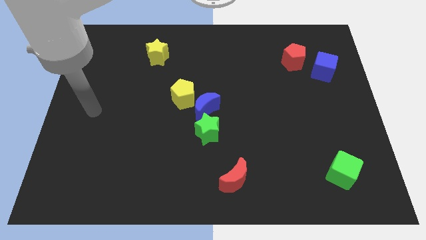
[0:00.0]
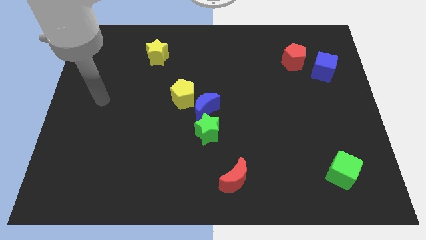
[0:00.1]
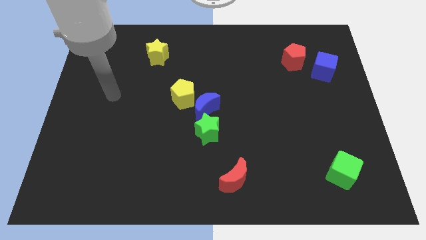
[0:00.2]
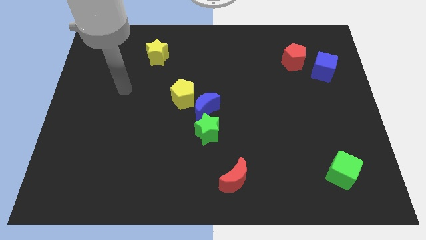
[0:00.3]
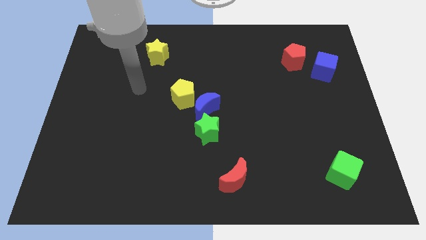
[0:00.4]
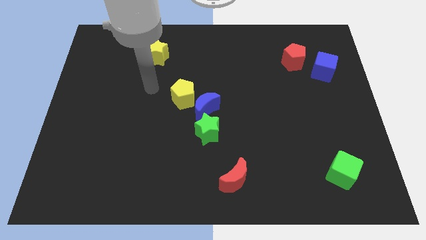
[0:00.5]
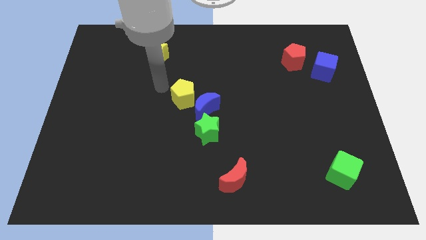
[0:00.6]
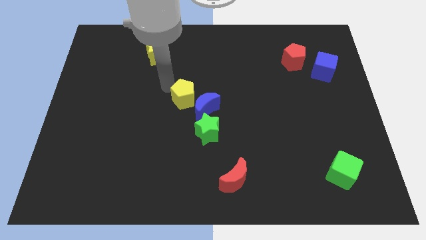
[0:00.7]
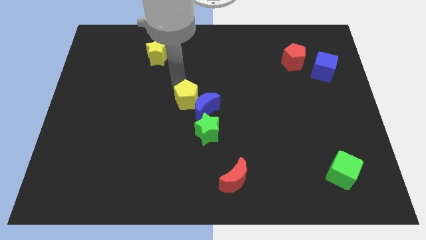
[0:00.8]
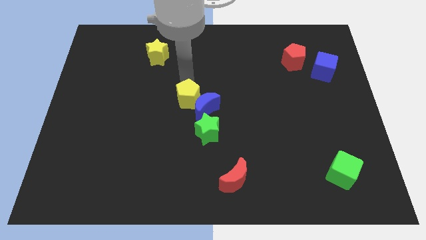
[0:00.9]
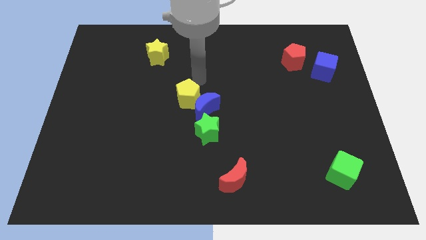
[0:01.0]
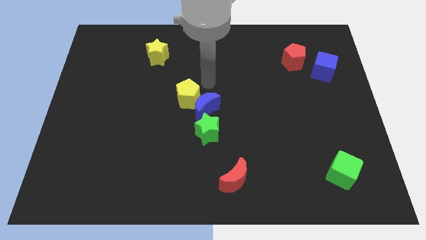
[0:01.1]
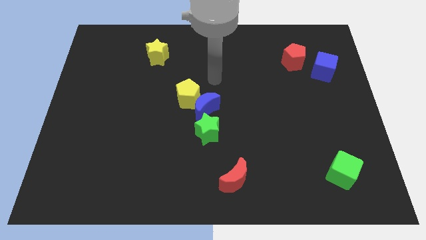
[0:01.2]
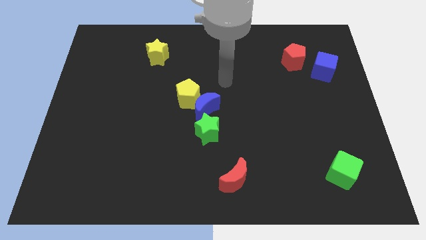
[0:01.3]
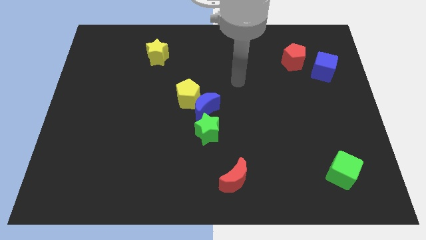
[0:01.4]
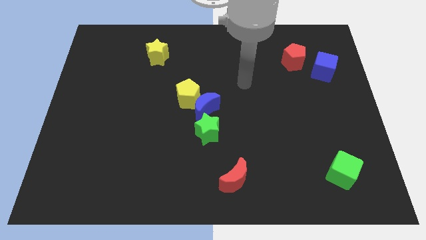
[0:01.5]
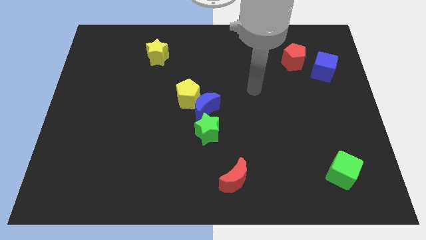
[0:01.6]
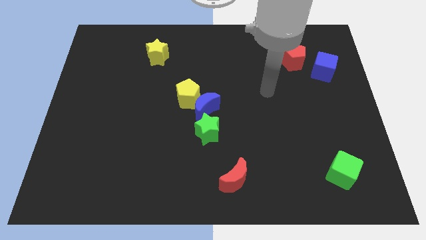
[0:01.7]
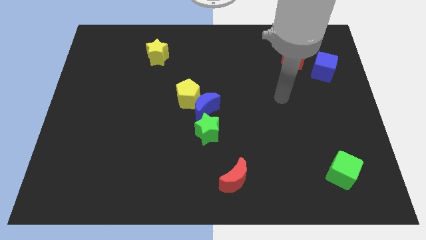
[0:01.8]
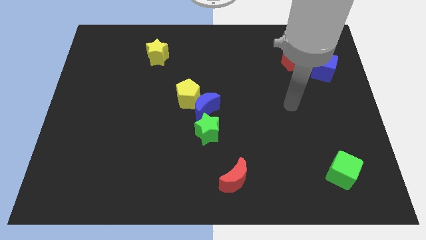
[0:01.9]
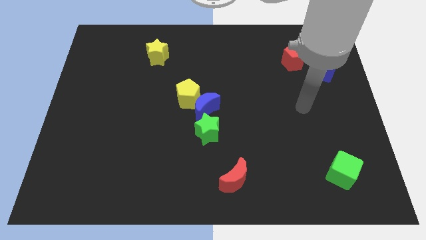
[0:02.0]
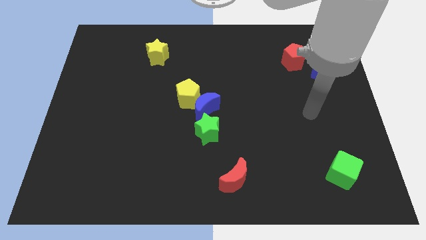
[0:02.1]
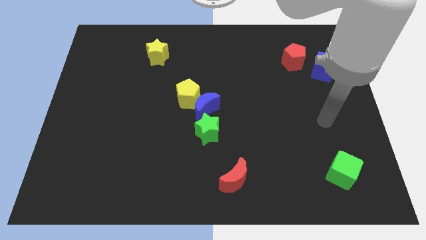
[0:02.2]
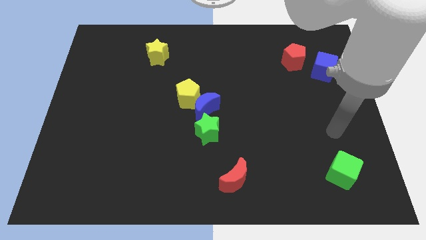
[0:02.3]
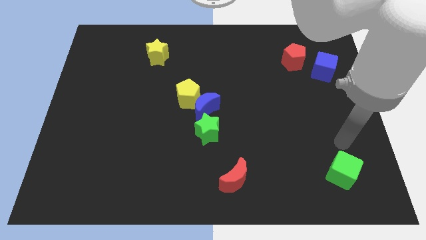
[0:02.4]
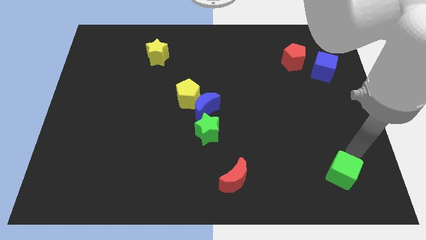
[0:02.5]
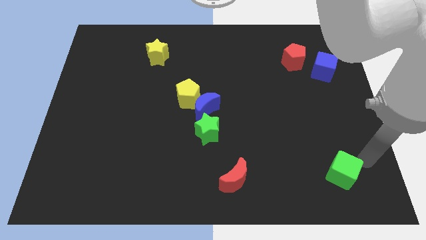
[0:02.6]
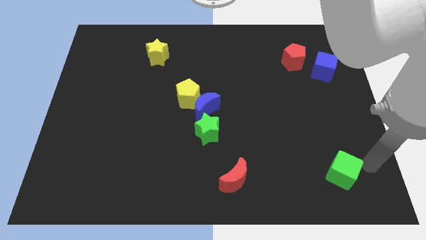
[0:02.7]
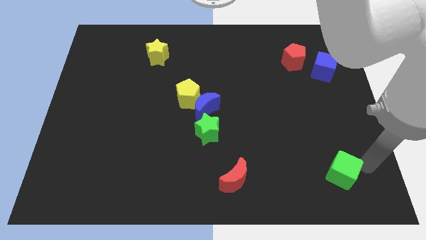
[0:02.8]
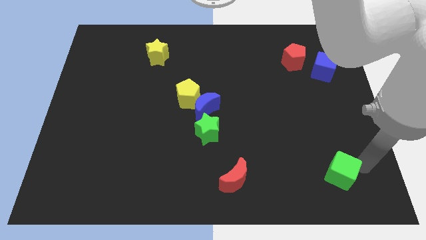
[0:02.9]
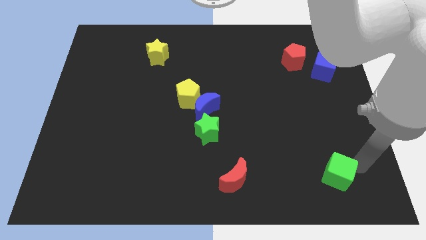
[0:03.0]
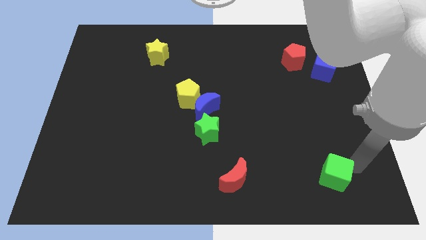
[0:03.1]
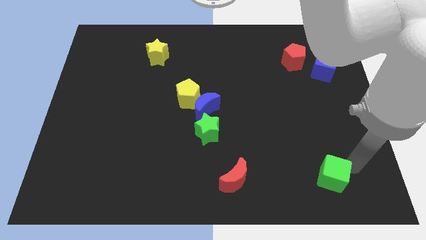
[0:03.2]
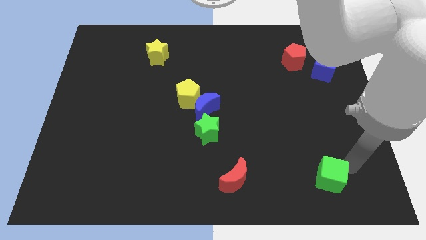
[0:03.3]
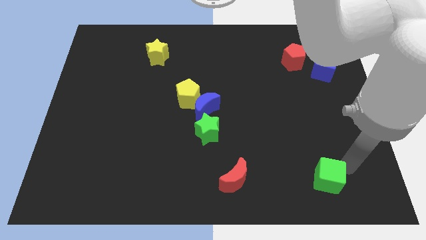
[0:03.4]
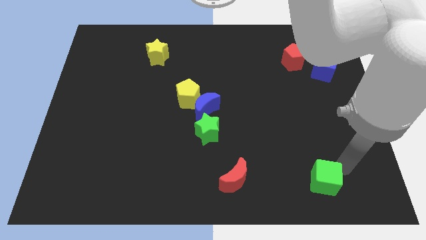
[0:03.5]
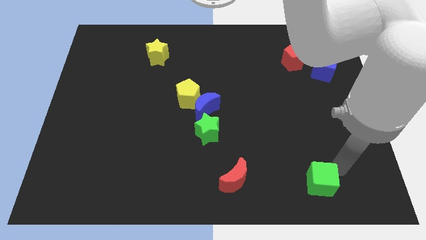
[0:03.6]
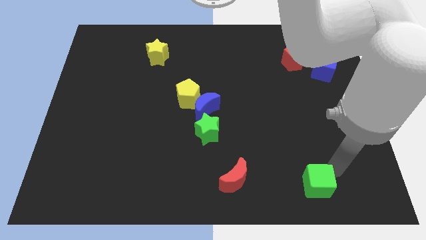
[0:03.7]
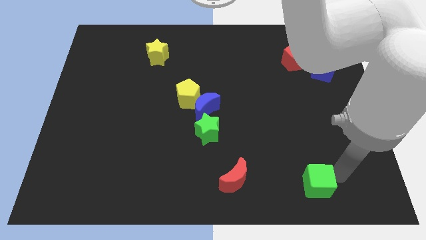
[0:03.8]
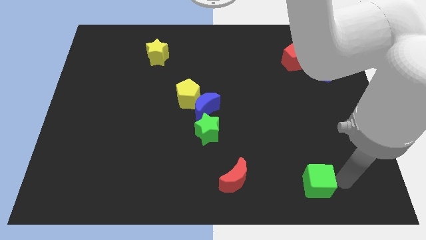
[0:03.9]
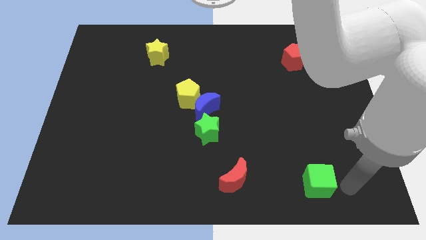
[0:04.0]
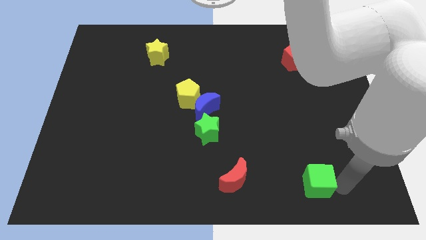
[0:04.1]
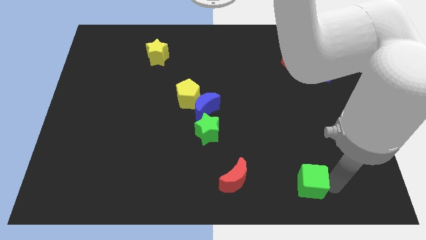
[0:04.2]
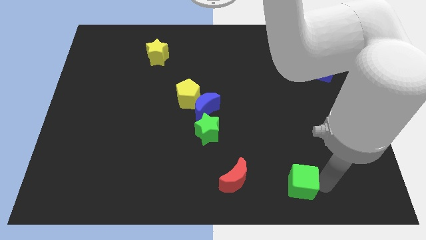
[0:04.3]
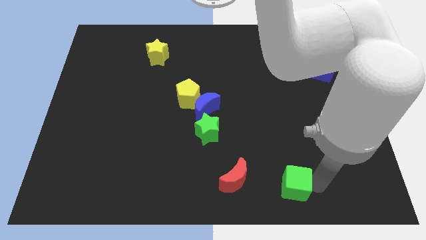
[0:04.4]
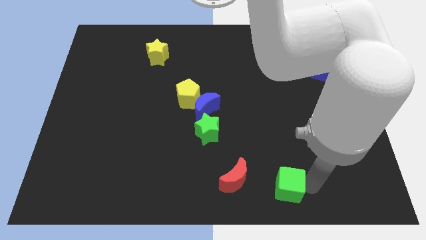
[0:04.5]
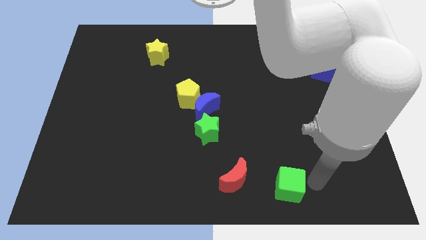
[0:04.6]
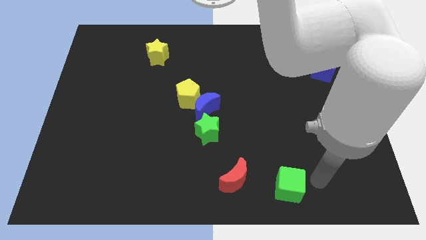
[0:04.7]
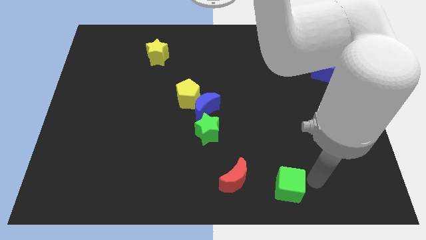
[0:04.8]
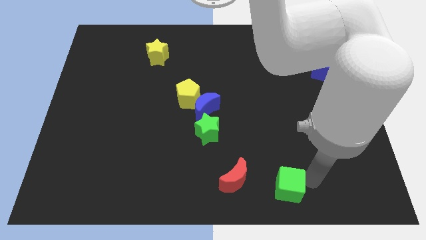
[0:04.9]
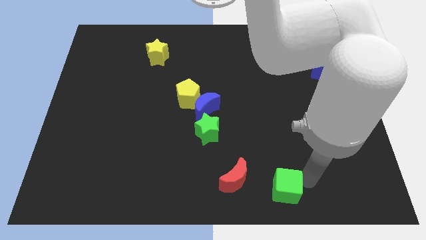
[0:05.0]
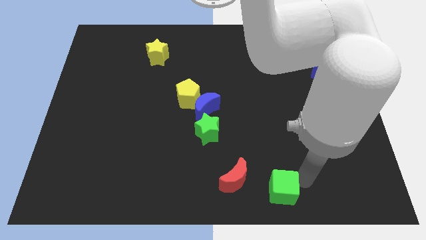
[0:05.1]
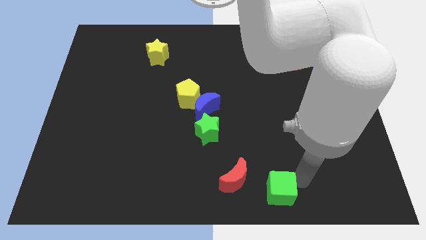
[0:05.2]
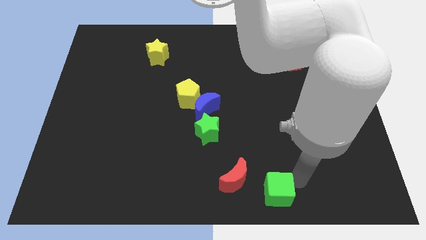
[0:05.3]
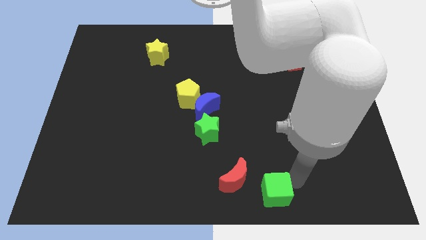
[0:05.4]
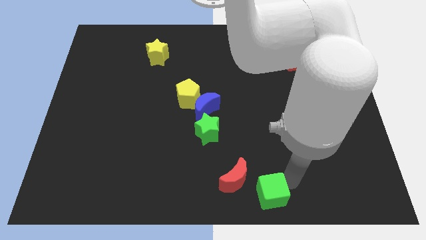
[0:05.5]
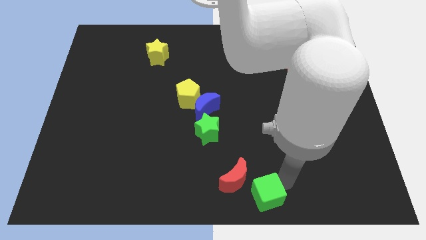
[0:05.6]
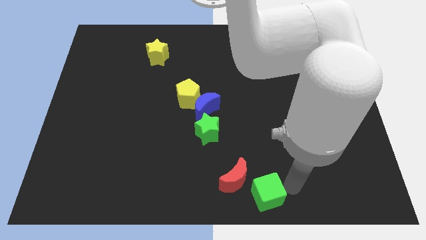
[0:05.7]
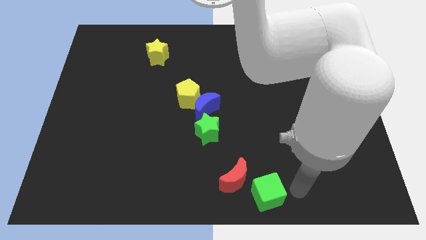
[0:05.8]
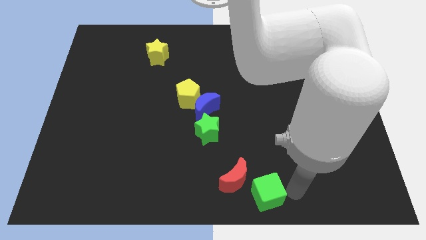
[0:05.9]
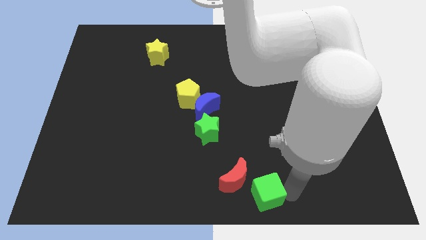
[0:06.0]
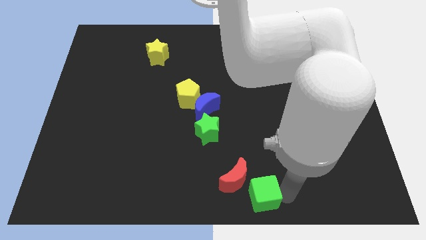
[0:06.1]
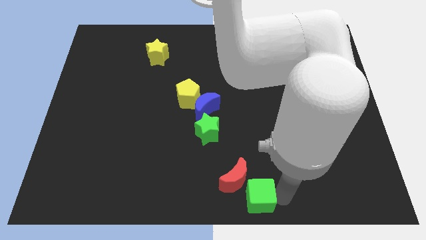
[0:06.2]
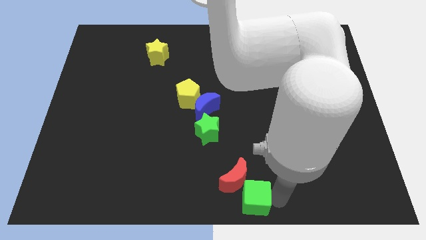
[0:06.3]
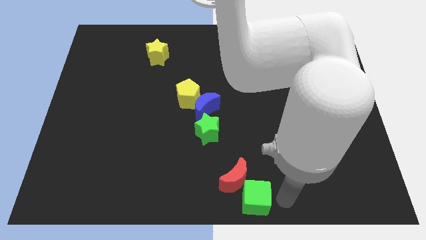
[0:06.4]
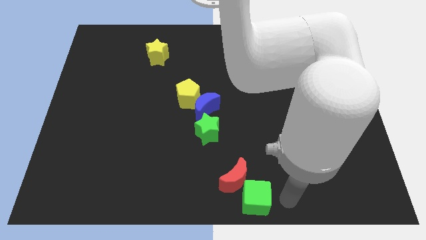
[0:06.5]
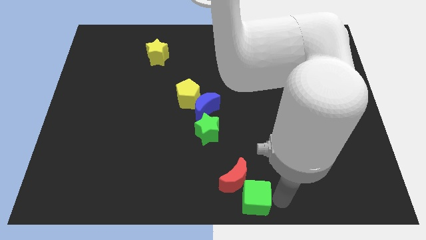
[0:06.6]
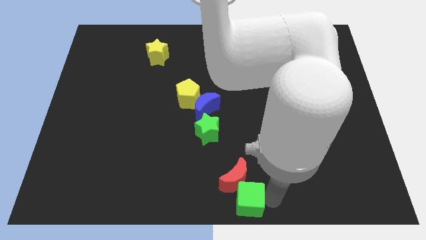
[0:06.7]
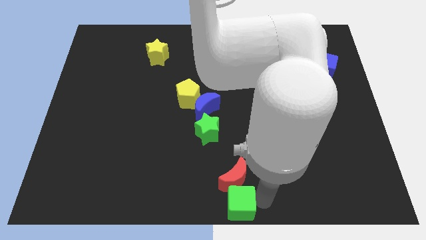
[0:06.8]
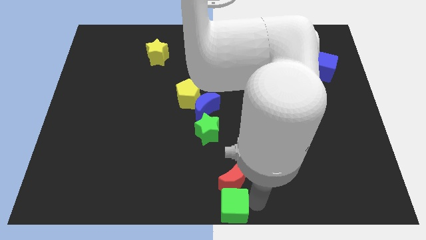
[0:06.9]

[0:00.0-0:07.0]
move the green cube left

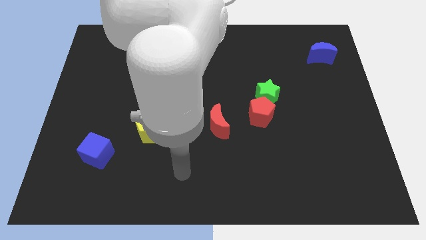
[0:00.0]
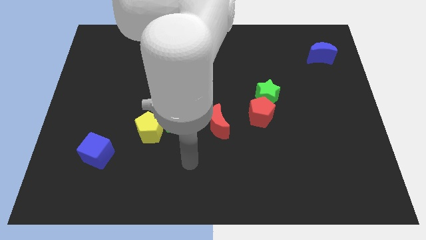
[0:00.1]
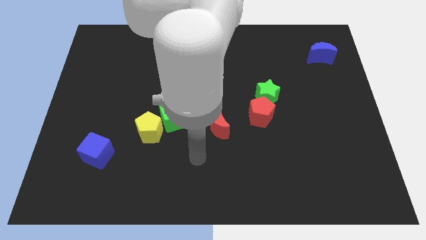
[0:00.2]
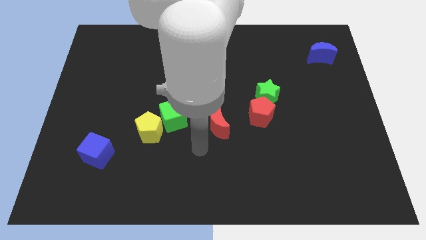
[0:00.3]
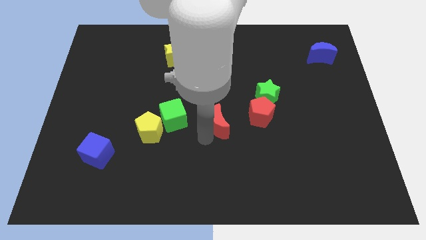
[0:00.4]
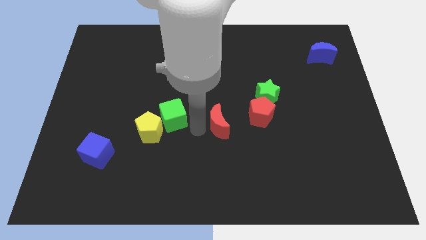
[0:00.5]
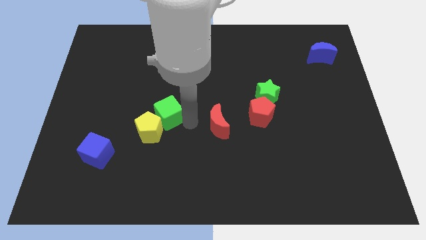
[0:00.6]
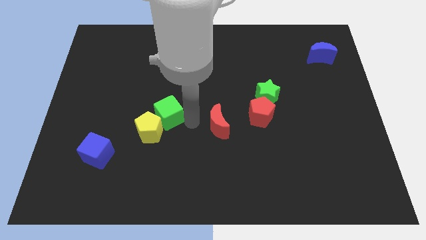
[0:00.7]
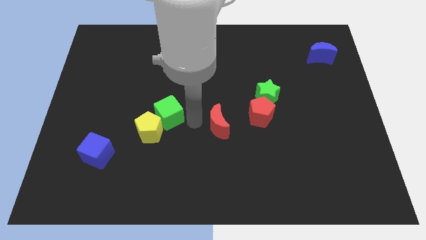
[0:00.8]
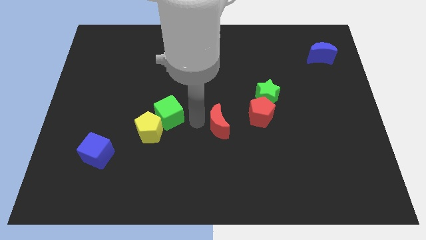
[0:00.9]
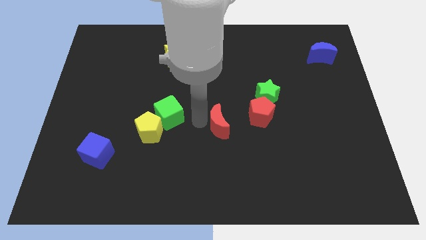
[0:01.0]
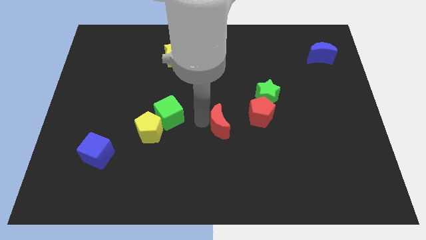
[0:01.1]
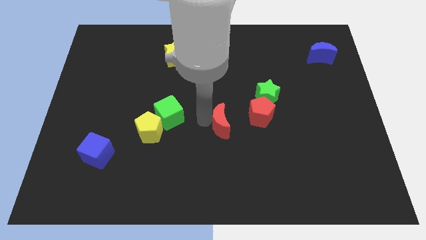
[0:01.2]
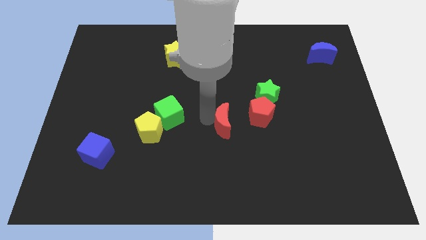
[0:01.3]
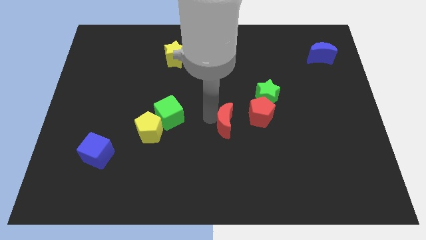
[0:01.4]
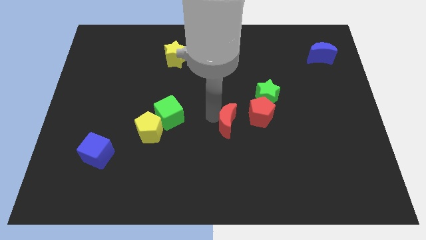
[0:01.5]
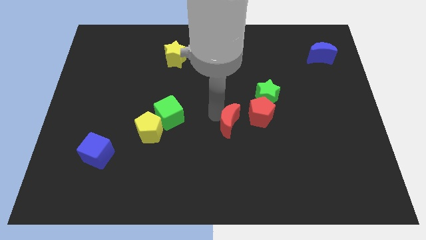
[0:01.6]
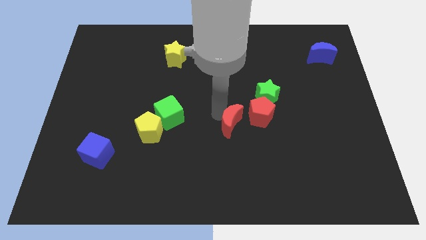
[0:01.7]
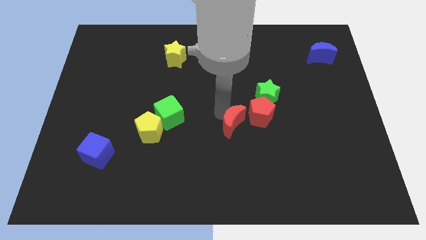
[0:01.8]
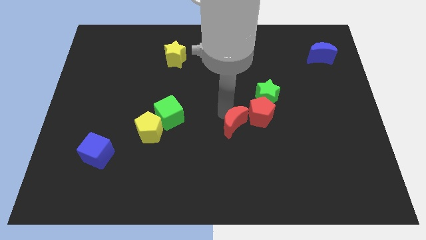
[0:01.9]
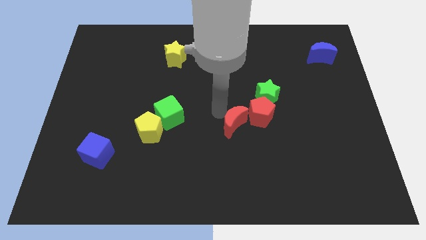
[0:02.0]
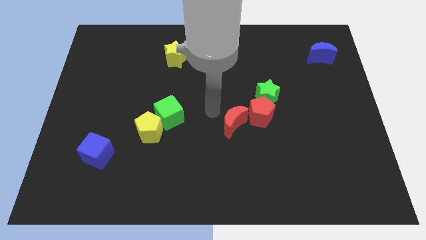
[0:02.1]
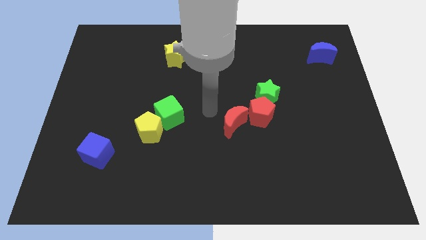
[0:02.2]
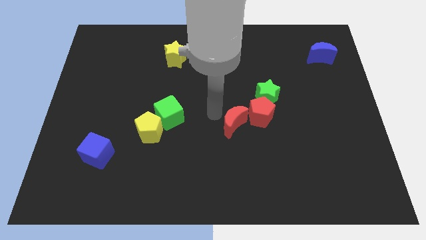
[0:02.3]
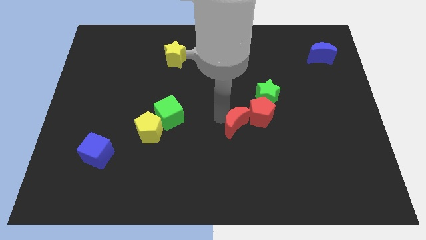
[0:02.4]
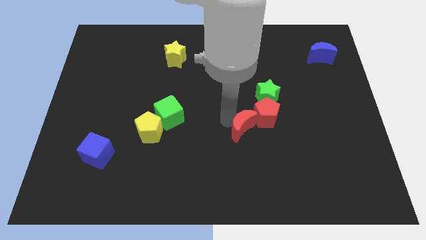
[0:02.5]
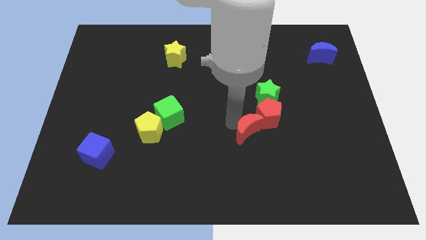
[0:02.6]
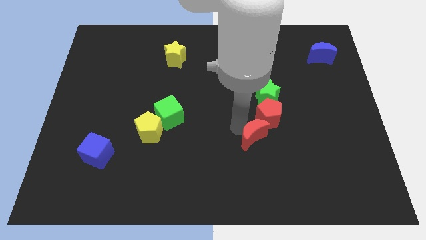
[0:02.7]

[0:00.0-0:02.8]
push the red moon right slightly
